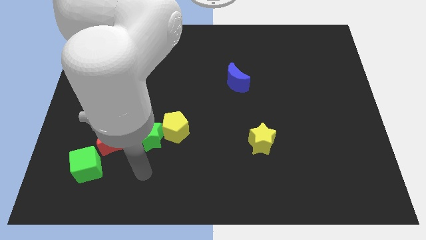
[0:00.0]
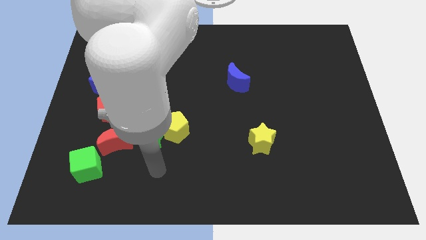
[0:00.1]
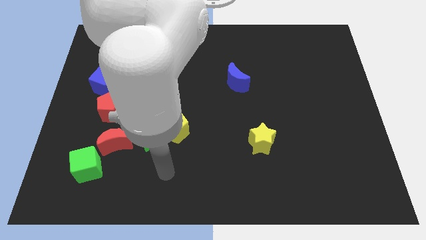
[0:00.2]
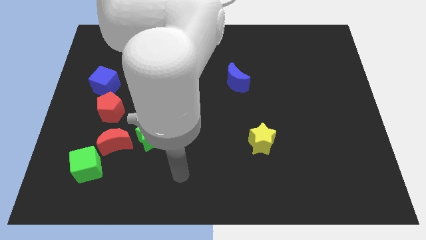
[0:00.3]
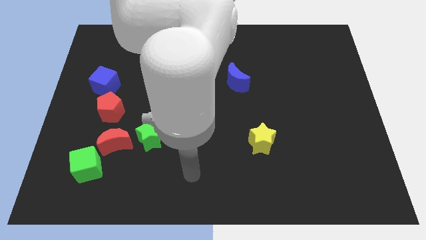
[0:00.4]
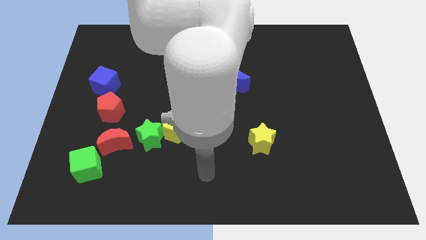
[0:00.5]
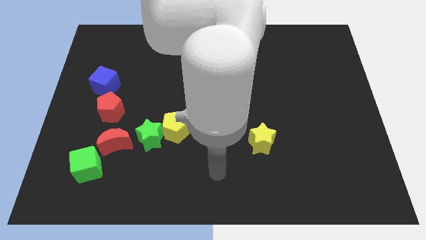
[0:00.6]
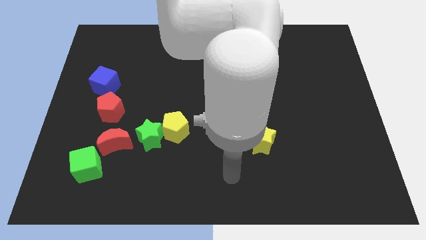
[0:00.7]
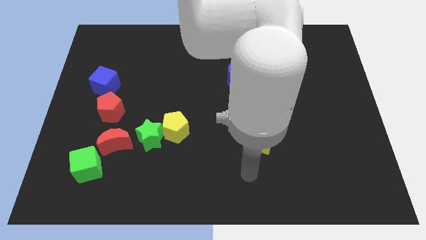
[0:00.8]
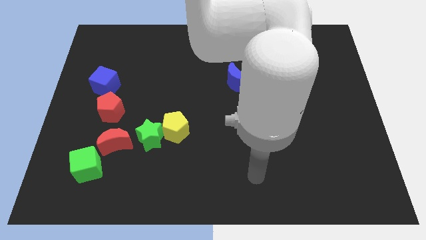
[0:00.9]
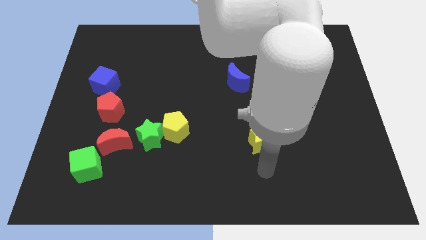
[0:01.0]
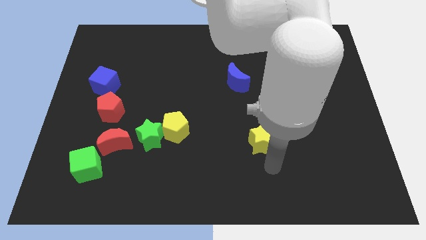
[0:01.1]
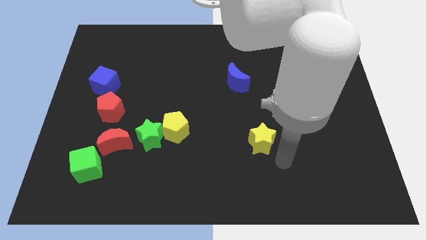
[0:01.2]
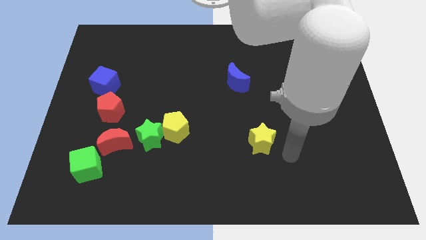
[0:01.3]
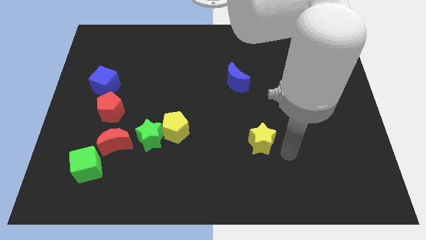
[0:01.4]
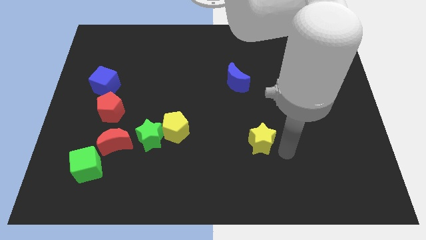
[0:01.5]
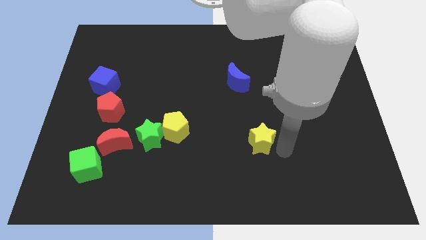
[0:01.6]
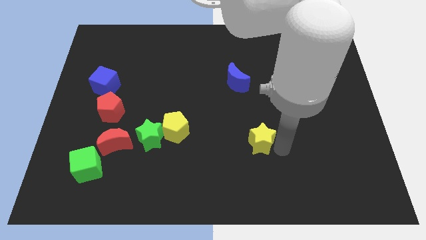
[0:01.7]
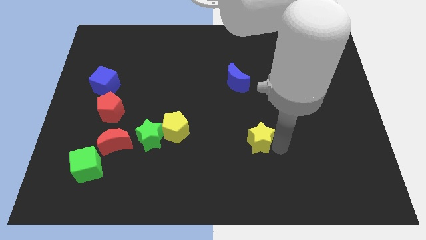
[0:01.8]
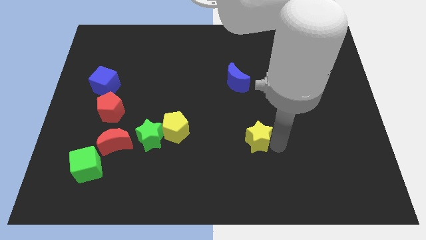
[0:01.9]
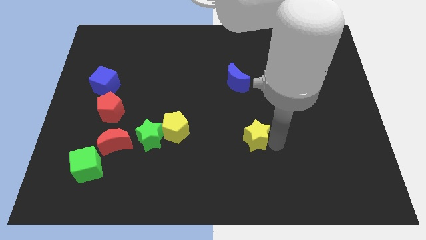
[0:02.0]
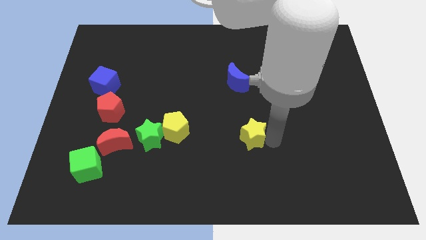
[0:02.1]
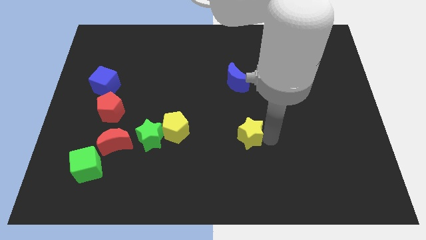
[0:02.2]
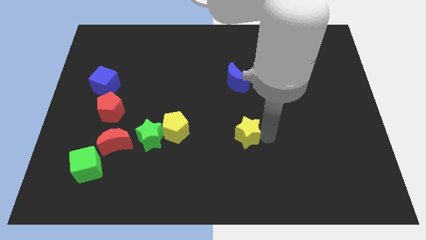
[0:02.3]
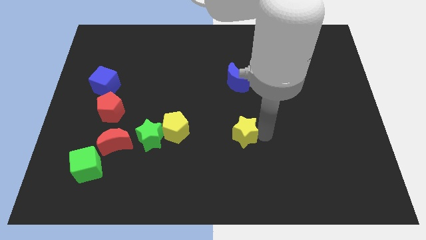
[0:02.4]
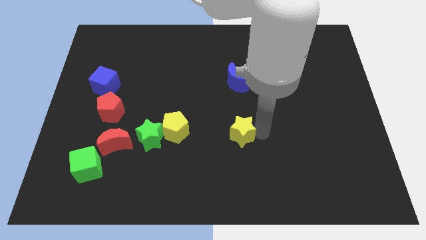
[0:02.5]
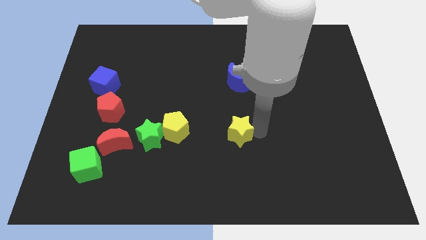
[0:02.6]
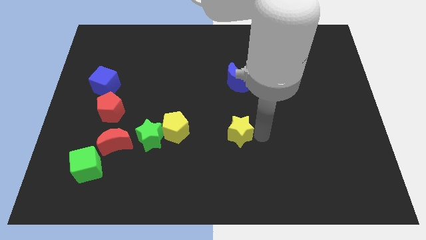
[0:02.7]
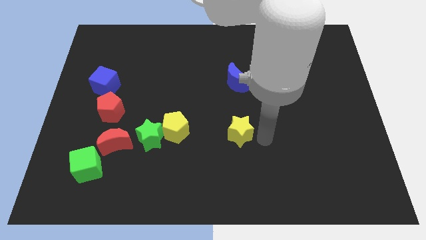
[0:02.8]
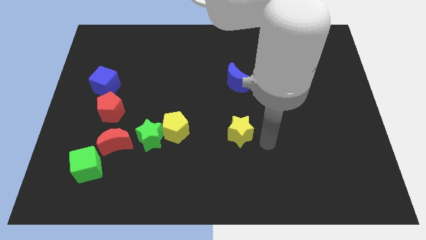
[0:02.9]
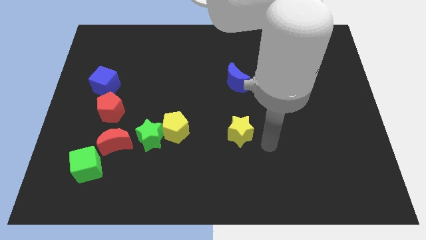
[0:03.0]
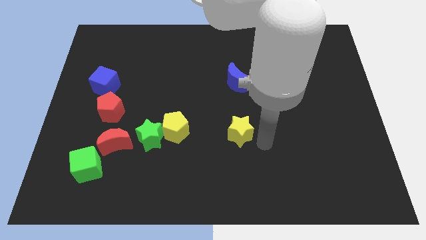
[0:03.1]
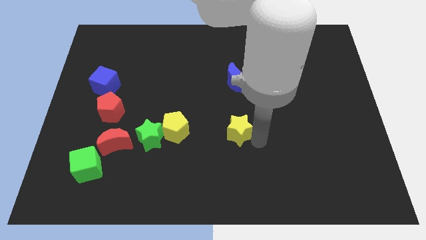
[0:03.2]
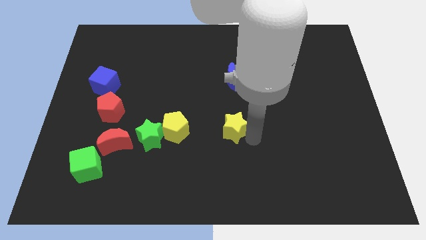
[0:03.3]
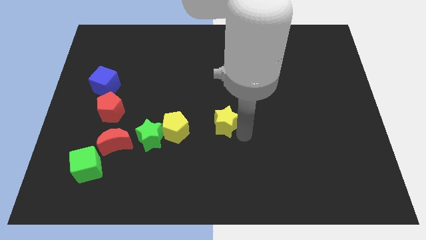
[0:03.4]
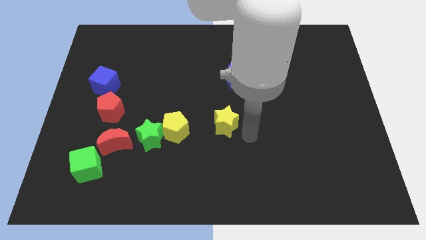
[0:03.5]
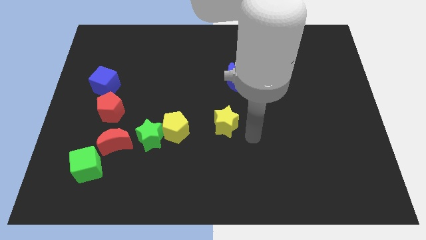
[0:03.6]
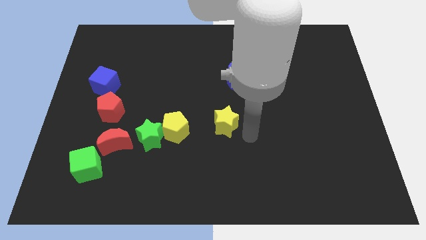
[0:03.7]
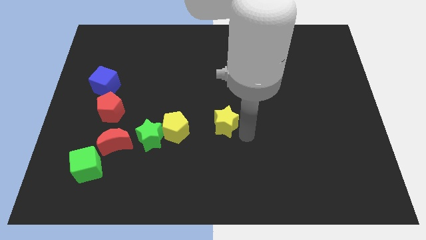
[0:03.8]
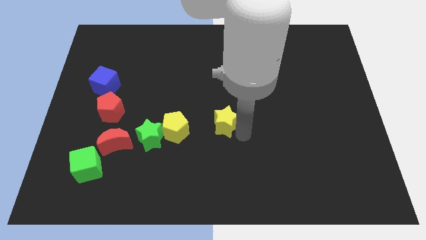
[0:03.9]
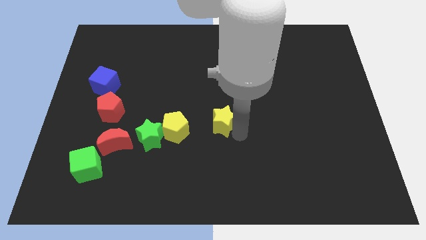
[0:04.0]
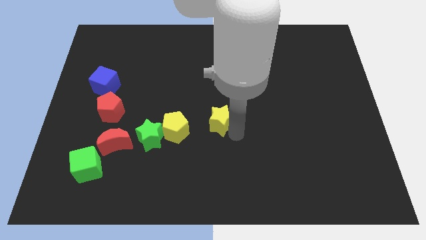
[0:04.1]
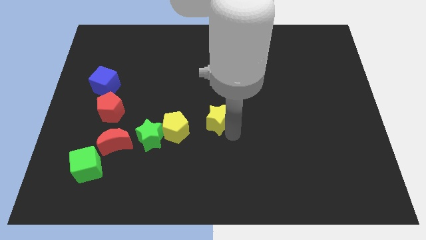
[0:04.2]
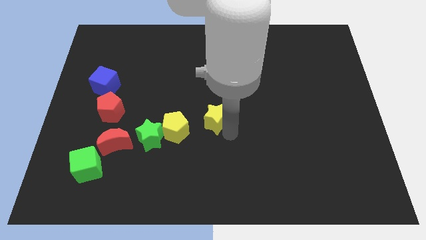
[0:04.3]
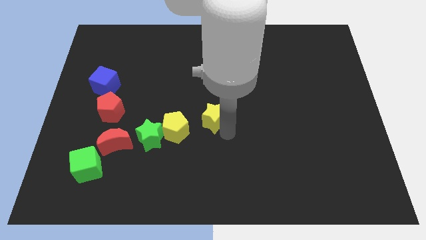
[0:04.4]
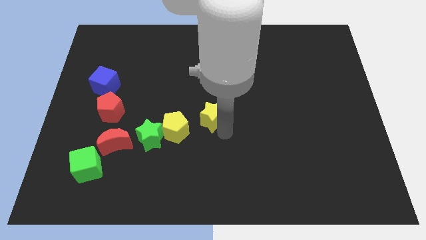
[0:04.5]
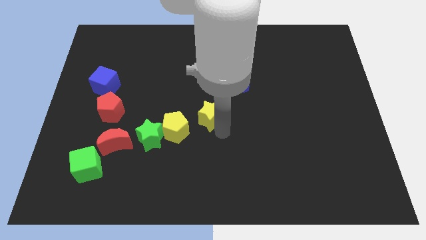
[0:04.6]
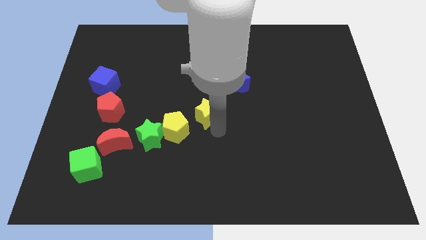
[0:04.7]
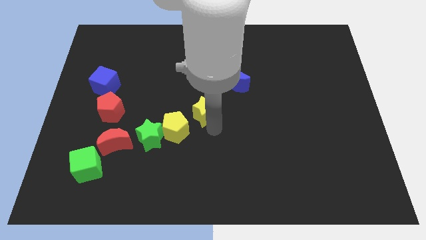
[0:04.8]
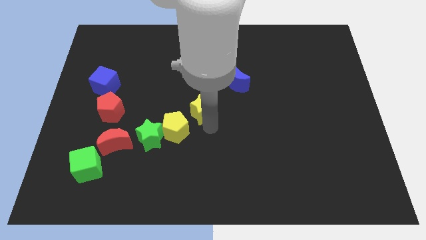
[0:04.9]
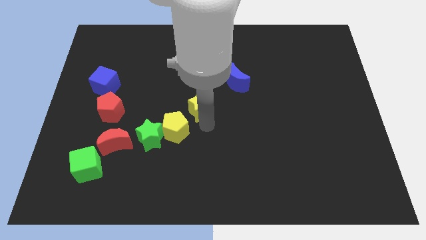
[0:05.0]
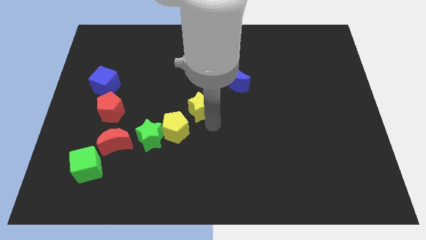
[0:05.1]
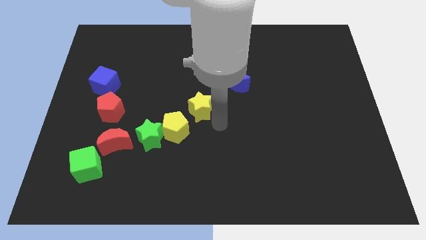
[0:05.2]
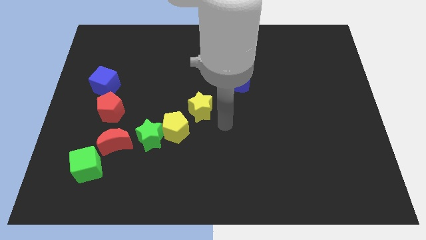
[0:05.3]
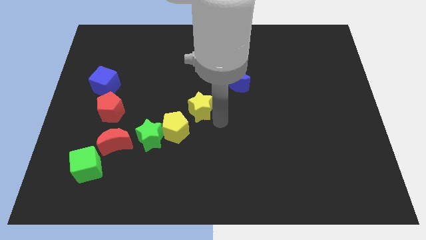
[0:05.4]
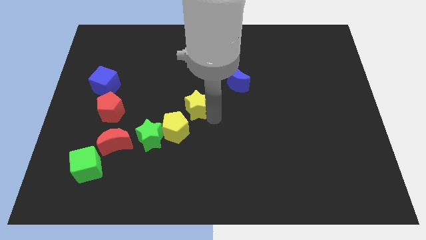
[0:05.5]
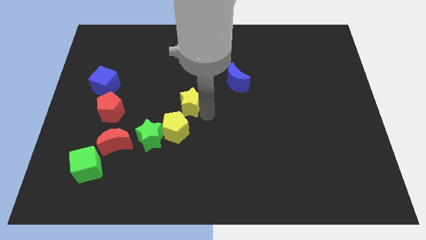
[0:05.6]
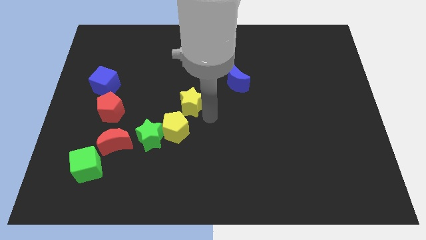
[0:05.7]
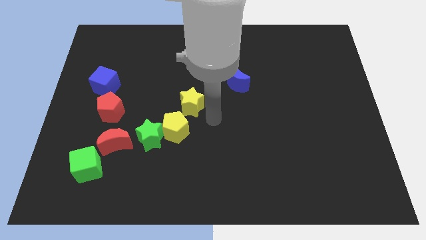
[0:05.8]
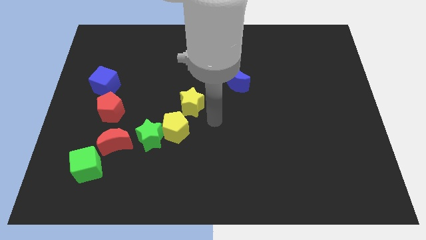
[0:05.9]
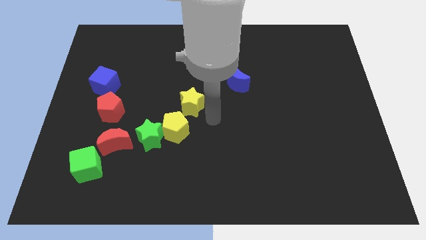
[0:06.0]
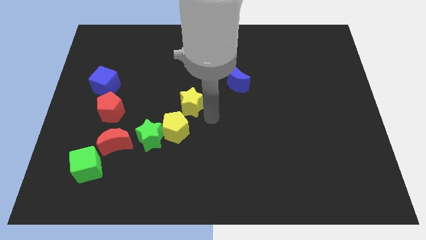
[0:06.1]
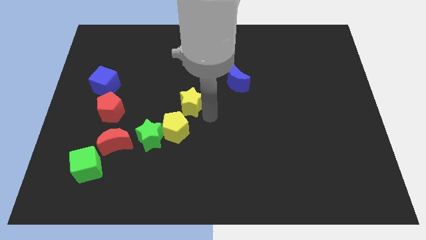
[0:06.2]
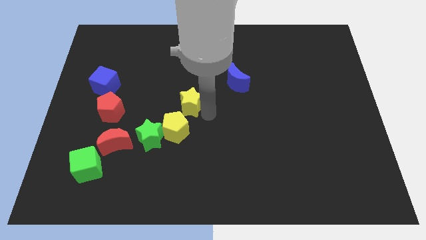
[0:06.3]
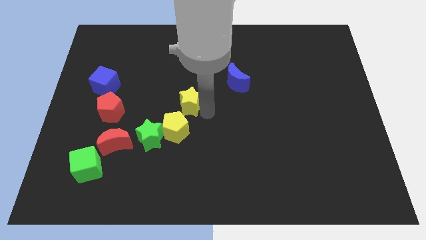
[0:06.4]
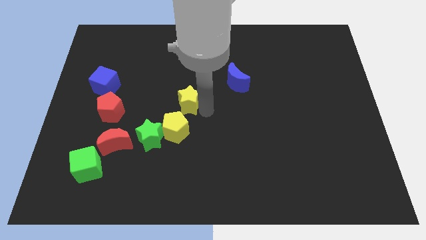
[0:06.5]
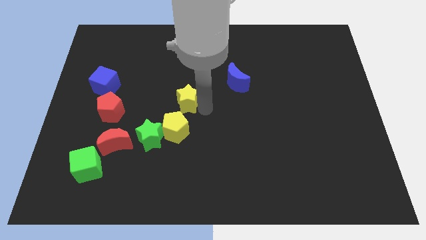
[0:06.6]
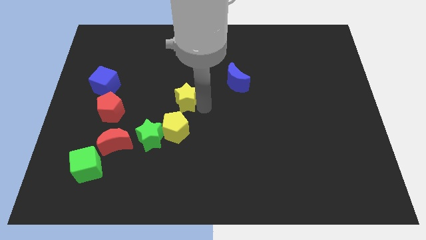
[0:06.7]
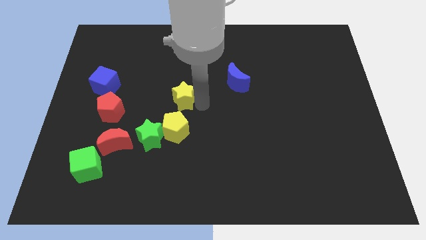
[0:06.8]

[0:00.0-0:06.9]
push the yellow star upwards and to the left

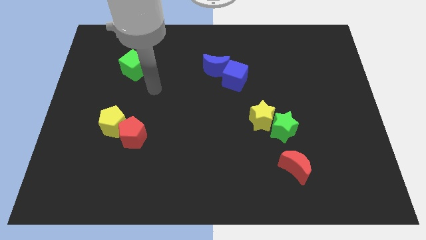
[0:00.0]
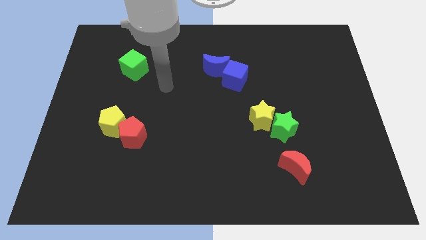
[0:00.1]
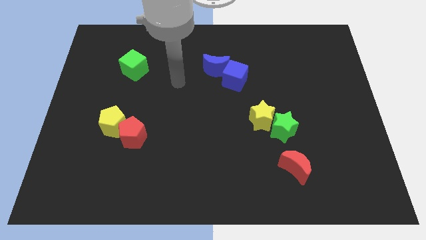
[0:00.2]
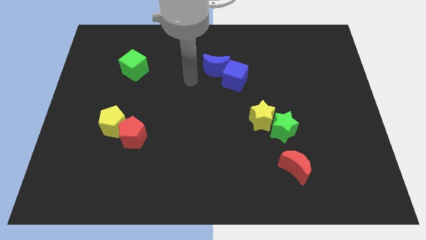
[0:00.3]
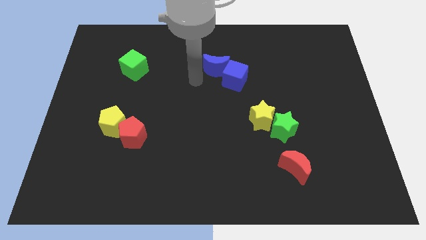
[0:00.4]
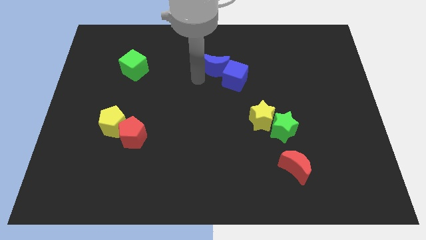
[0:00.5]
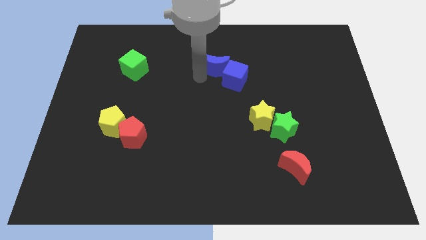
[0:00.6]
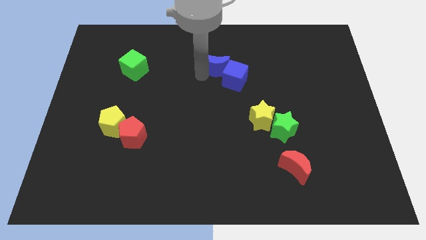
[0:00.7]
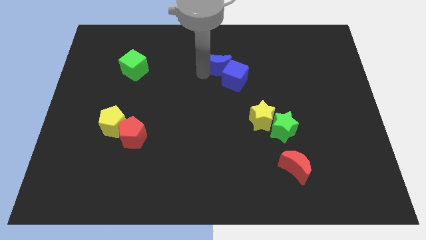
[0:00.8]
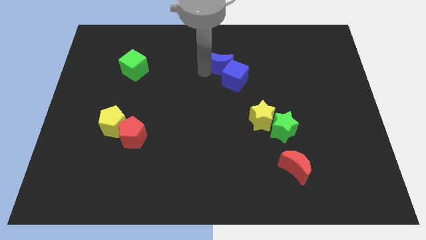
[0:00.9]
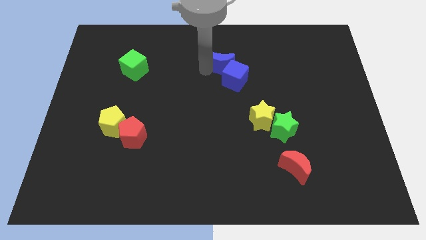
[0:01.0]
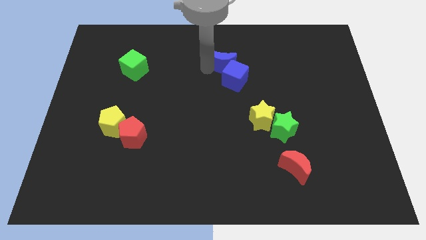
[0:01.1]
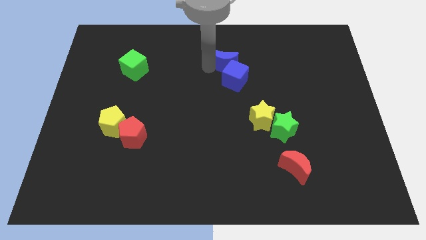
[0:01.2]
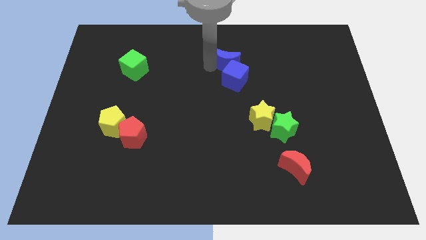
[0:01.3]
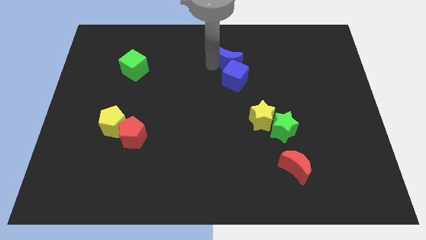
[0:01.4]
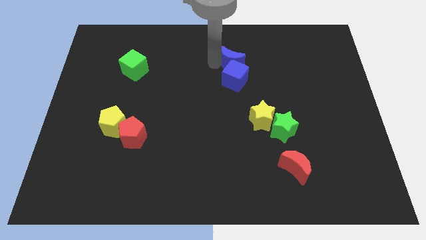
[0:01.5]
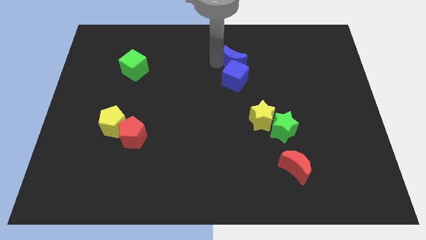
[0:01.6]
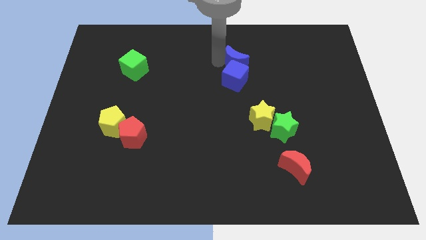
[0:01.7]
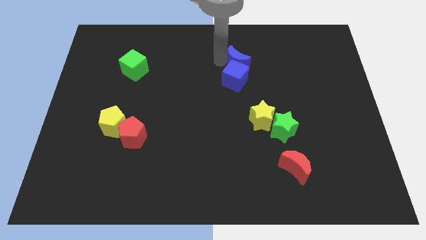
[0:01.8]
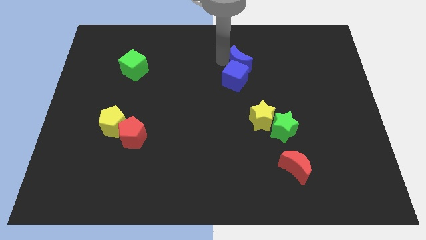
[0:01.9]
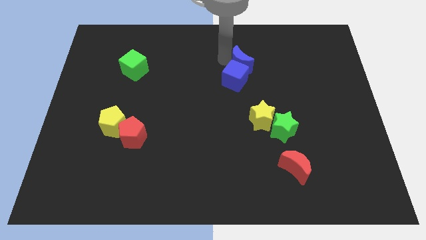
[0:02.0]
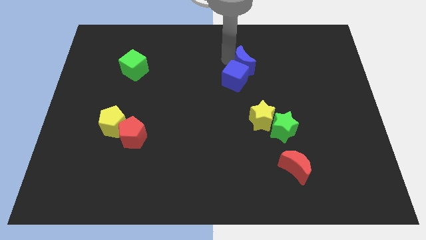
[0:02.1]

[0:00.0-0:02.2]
slide the blue moon a little bit to the right
